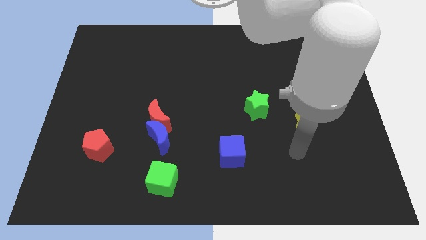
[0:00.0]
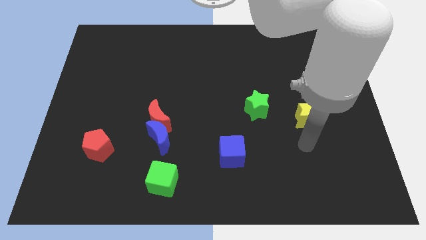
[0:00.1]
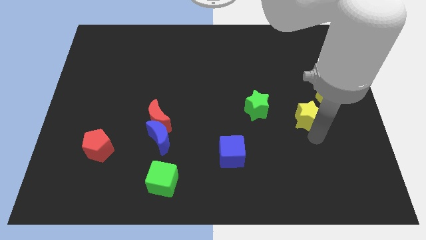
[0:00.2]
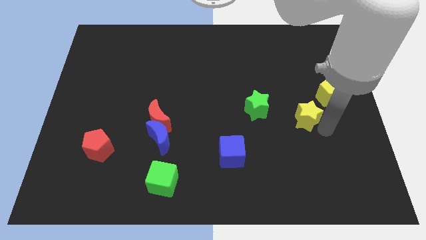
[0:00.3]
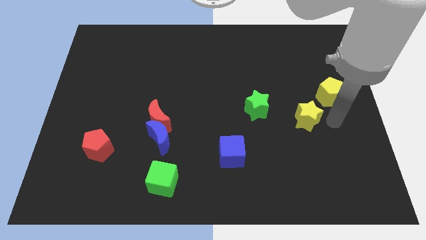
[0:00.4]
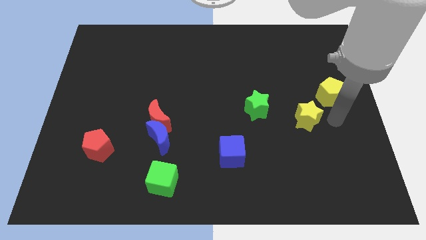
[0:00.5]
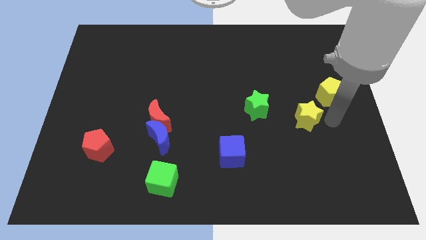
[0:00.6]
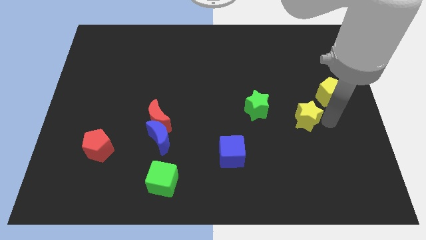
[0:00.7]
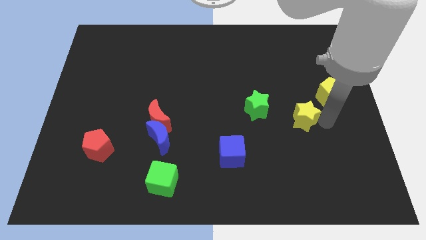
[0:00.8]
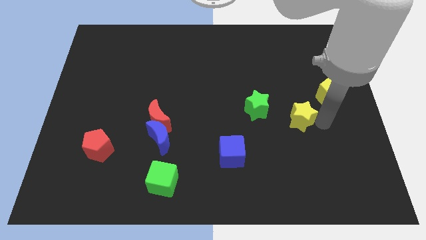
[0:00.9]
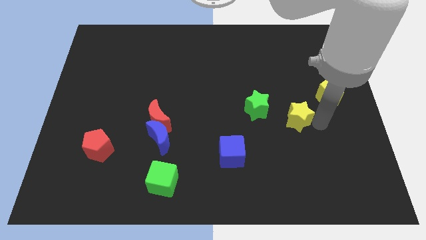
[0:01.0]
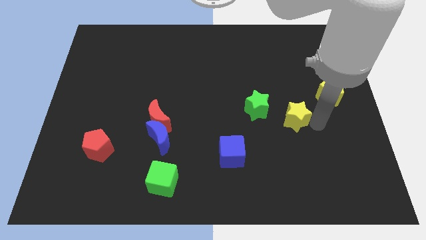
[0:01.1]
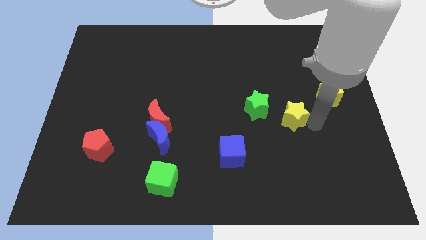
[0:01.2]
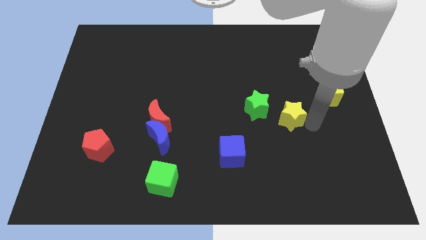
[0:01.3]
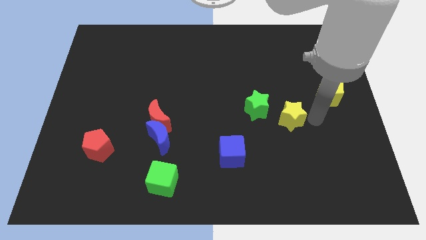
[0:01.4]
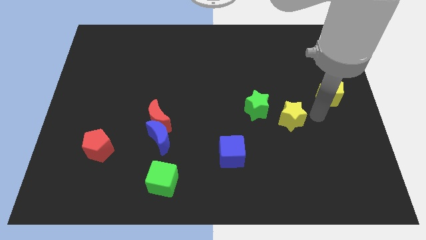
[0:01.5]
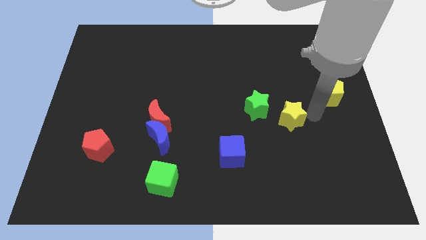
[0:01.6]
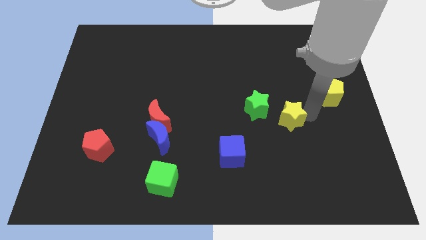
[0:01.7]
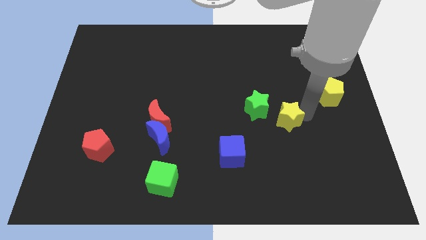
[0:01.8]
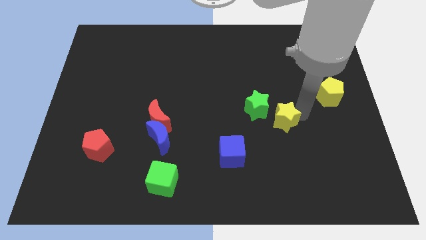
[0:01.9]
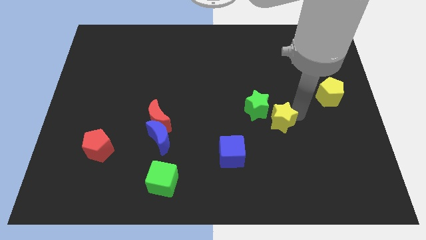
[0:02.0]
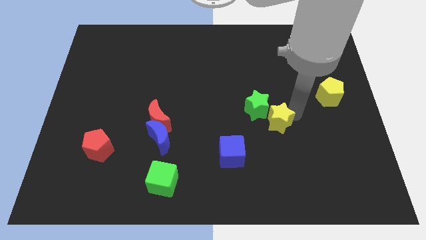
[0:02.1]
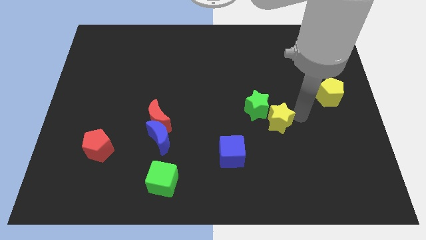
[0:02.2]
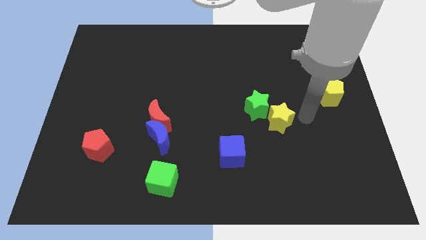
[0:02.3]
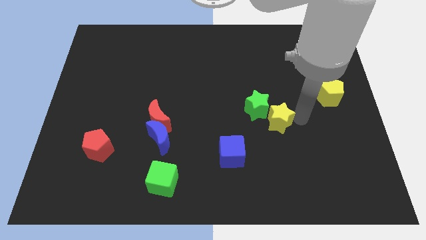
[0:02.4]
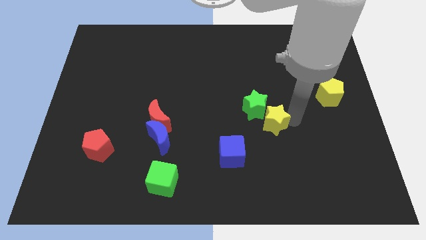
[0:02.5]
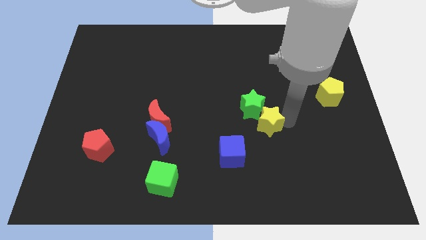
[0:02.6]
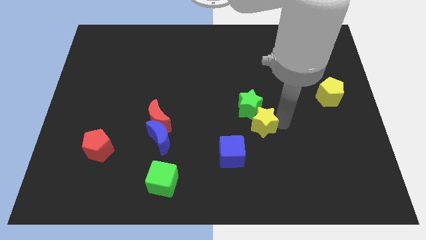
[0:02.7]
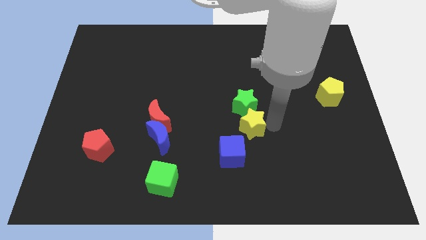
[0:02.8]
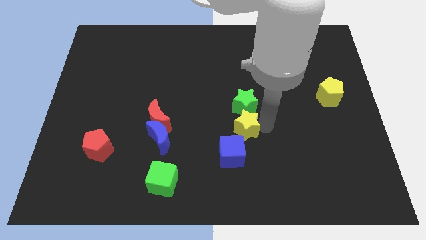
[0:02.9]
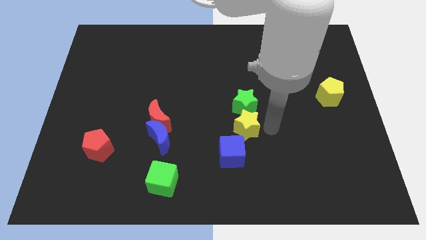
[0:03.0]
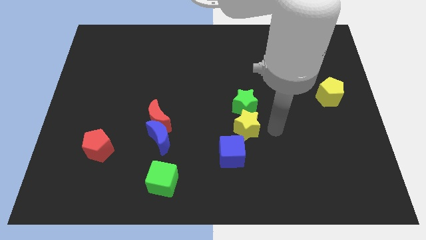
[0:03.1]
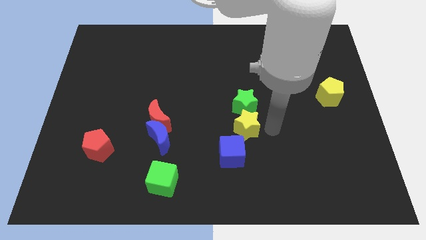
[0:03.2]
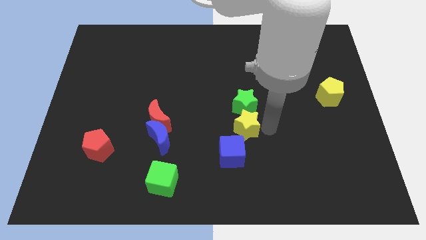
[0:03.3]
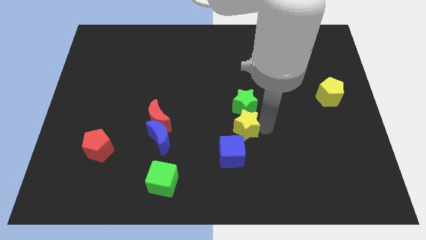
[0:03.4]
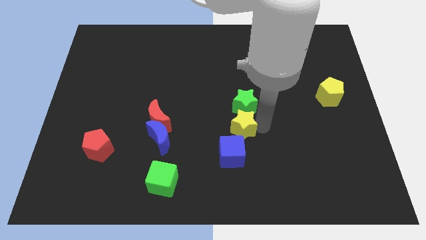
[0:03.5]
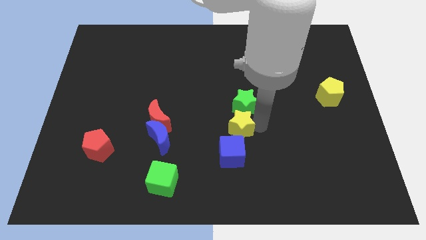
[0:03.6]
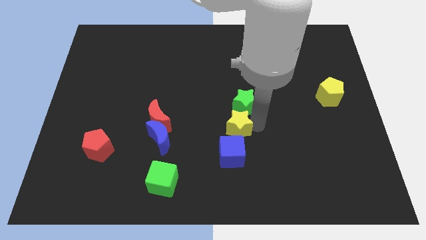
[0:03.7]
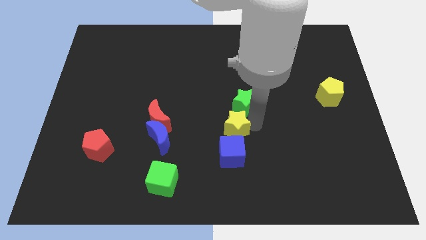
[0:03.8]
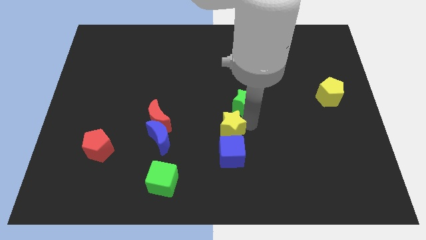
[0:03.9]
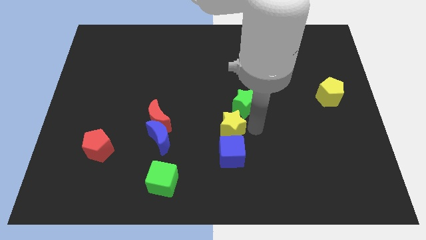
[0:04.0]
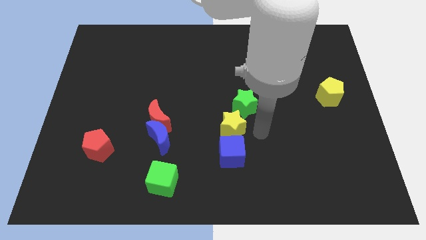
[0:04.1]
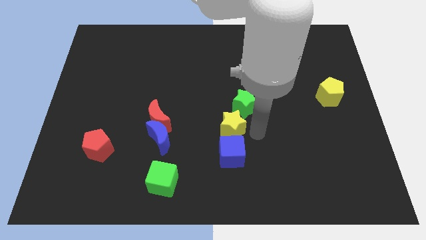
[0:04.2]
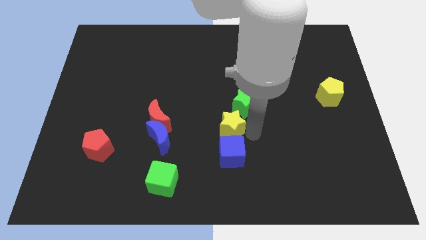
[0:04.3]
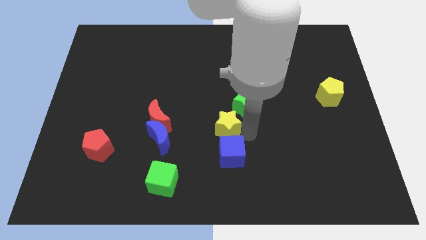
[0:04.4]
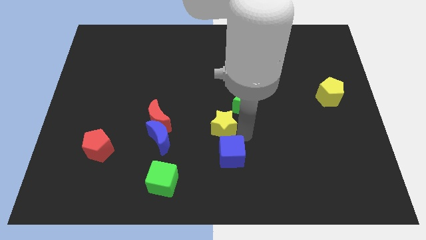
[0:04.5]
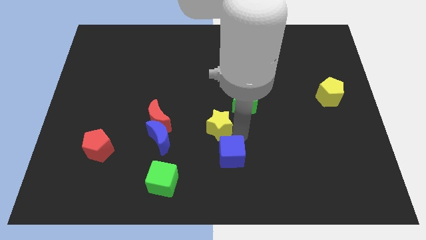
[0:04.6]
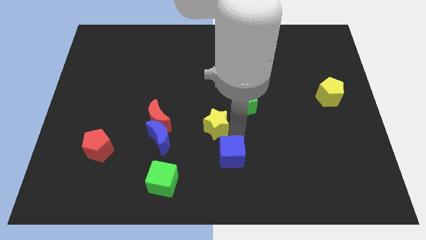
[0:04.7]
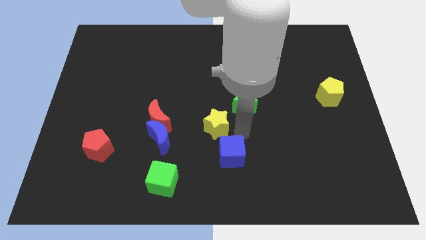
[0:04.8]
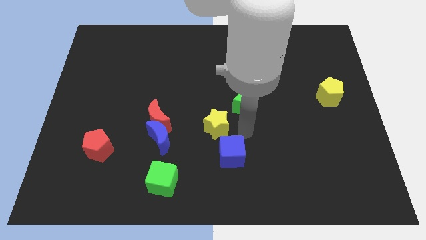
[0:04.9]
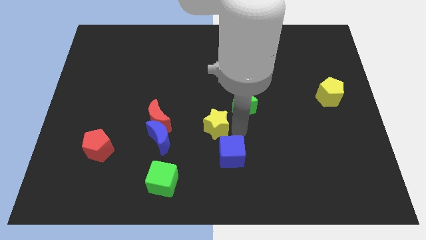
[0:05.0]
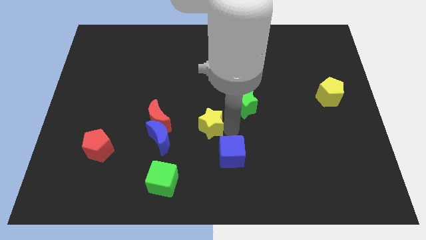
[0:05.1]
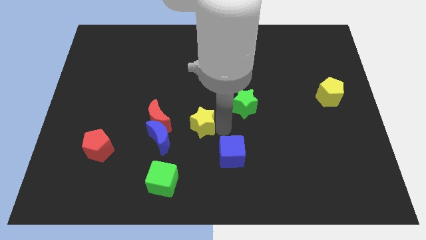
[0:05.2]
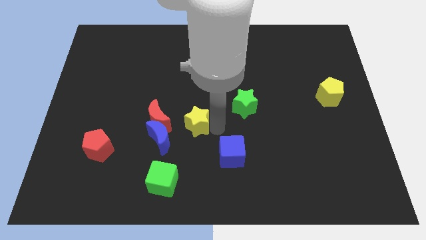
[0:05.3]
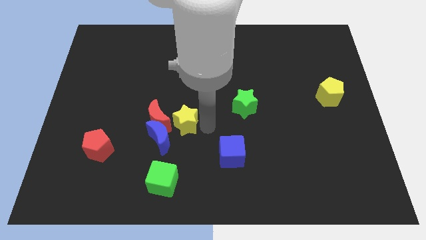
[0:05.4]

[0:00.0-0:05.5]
slide the yellow star close to the red moon

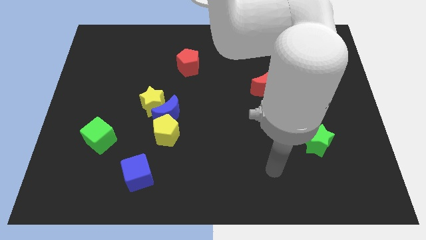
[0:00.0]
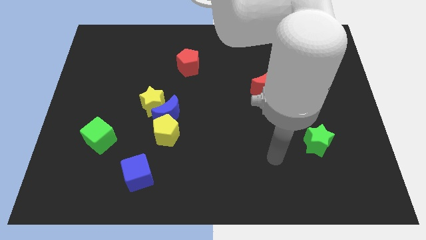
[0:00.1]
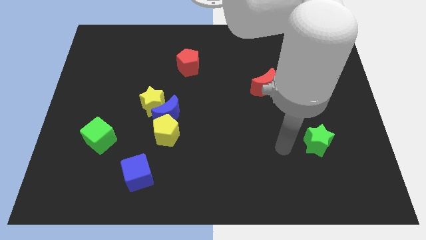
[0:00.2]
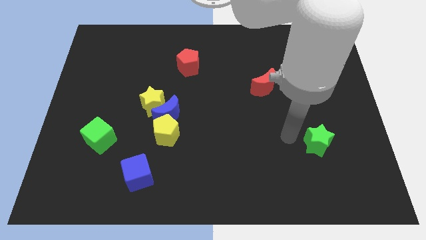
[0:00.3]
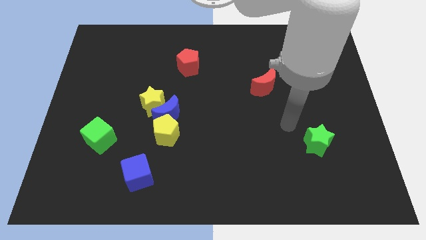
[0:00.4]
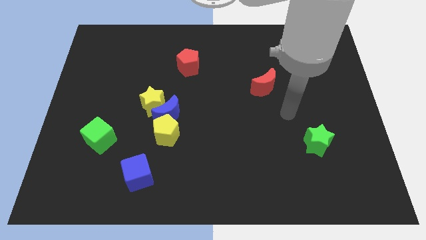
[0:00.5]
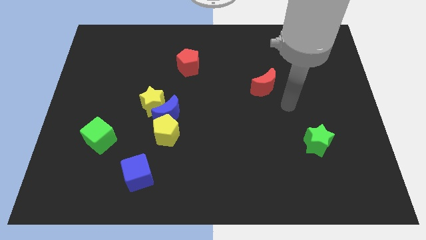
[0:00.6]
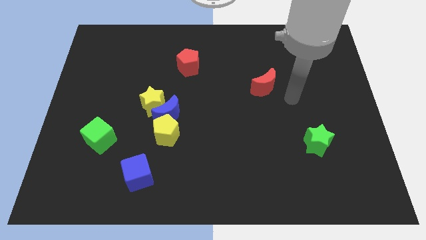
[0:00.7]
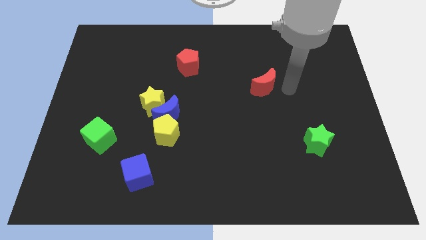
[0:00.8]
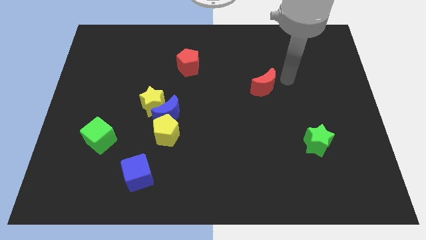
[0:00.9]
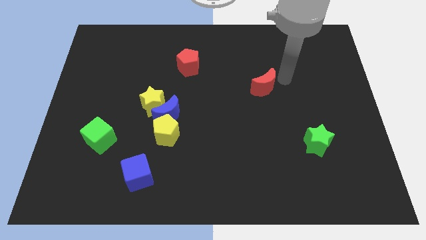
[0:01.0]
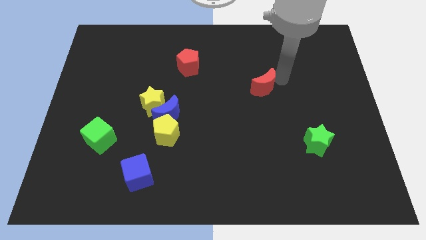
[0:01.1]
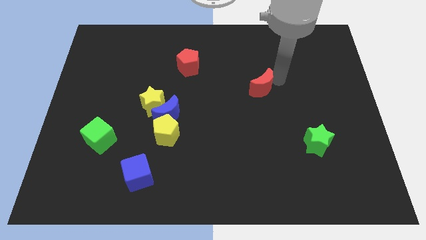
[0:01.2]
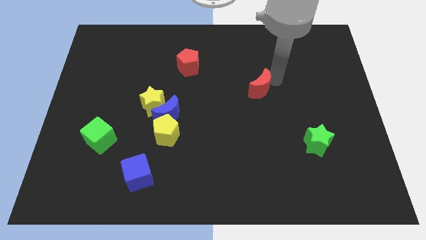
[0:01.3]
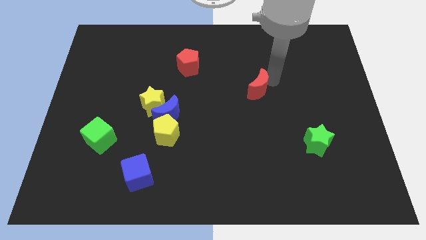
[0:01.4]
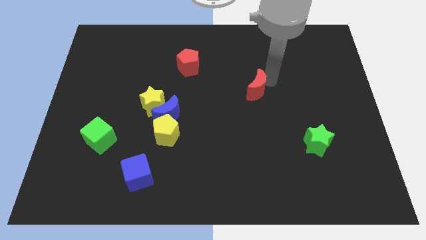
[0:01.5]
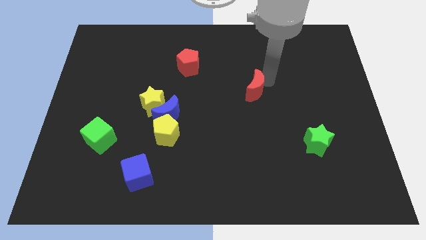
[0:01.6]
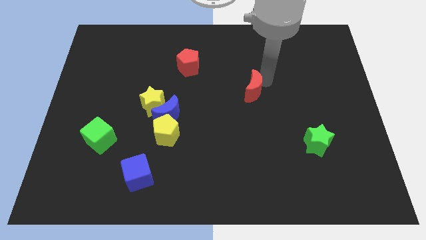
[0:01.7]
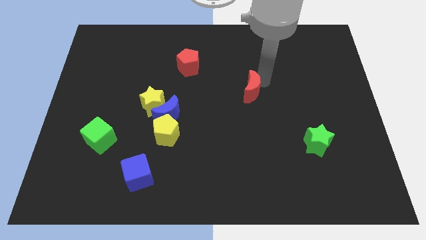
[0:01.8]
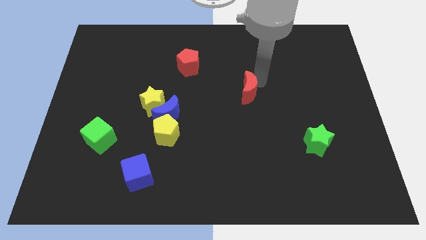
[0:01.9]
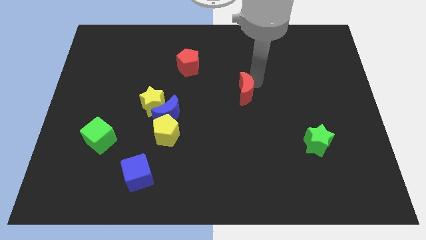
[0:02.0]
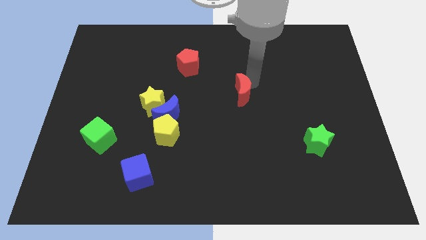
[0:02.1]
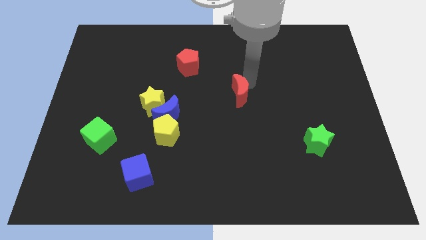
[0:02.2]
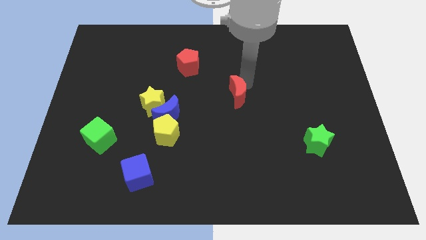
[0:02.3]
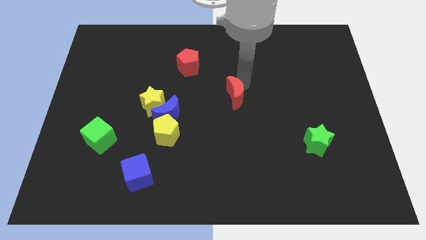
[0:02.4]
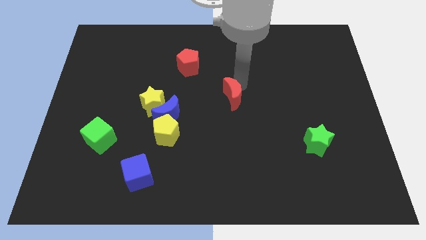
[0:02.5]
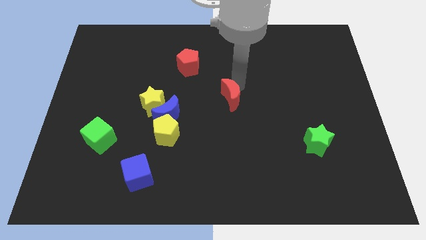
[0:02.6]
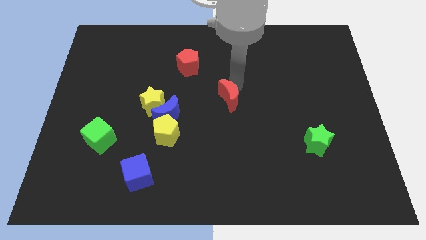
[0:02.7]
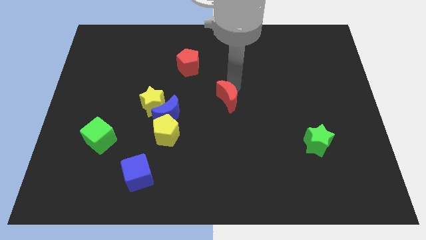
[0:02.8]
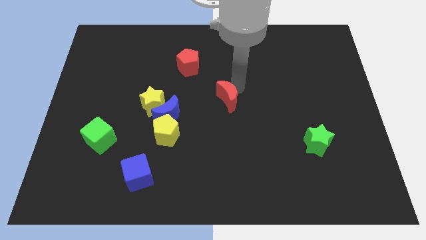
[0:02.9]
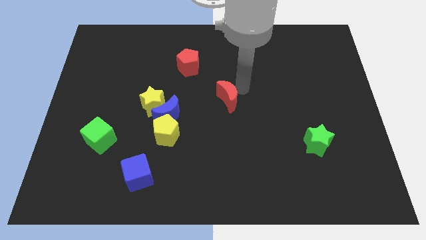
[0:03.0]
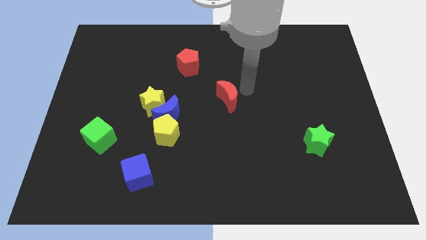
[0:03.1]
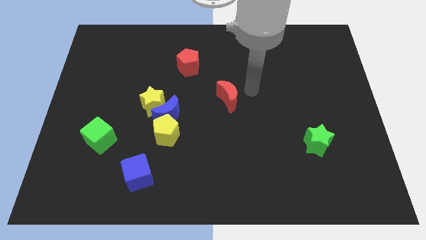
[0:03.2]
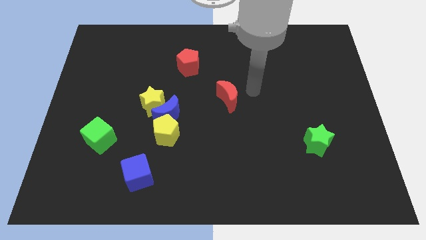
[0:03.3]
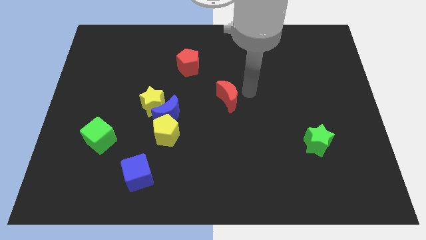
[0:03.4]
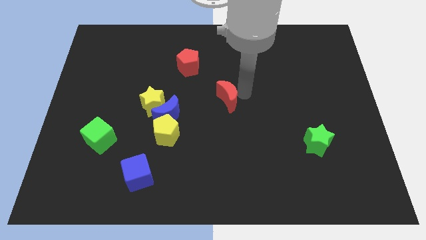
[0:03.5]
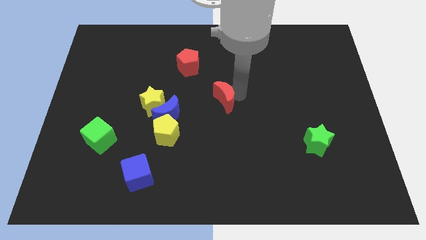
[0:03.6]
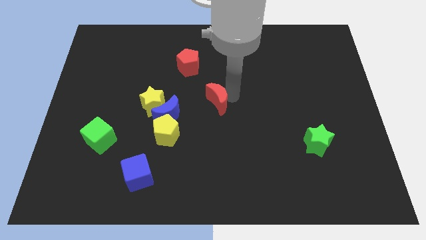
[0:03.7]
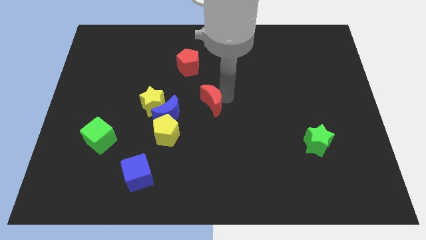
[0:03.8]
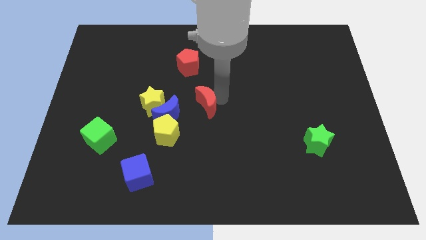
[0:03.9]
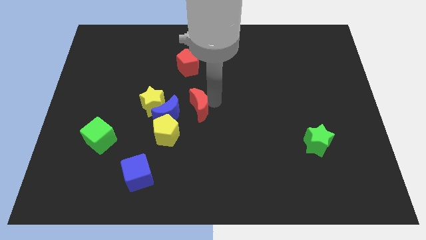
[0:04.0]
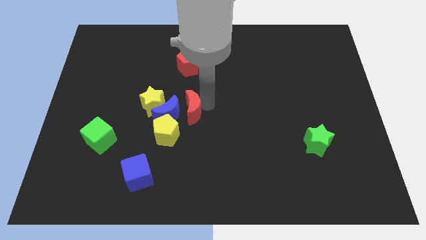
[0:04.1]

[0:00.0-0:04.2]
push the red moon next to the blue moon
